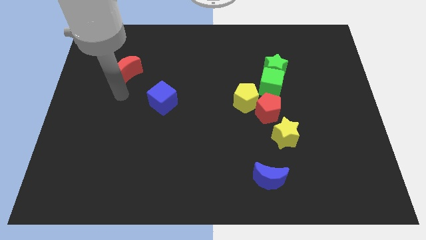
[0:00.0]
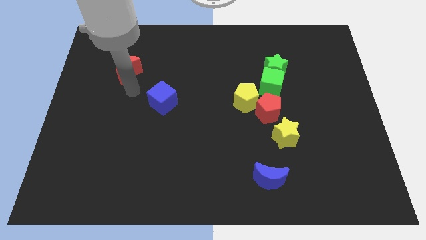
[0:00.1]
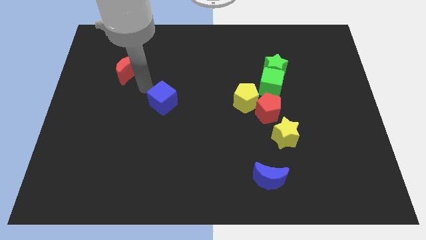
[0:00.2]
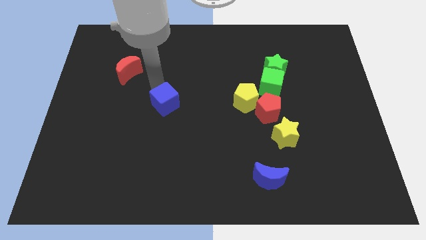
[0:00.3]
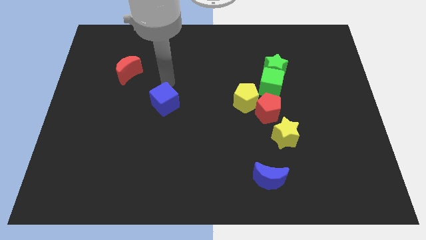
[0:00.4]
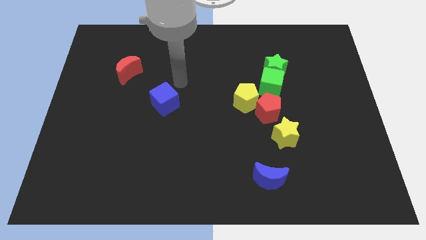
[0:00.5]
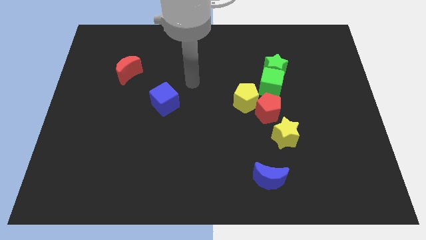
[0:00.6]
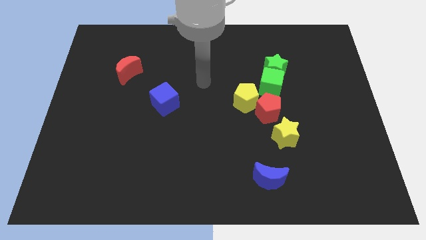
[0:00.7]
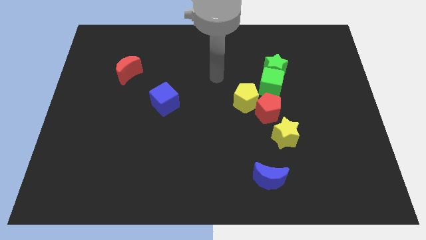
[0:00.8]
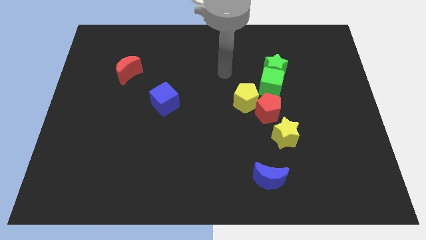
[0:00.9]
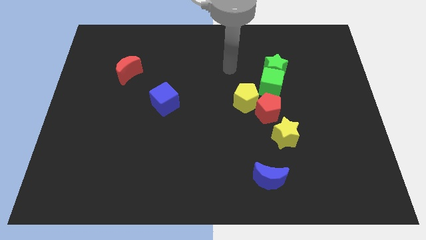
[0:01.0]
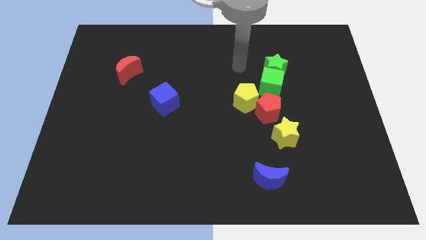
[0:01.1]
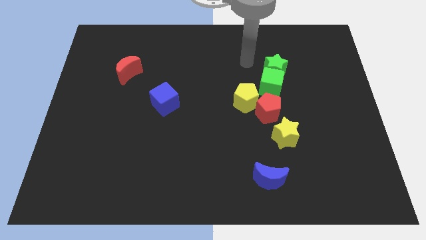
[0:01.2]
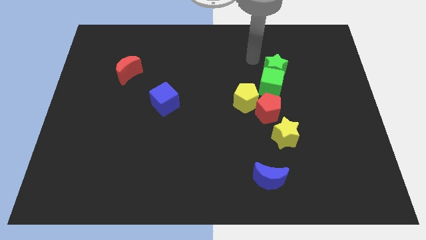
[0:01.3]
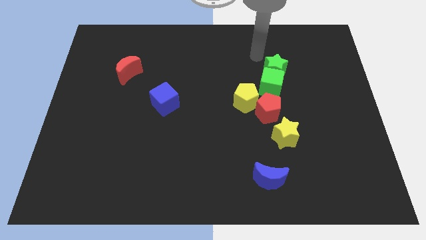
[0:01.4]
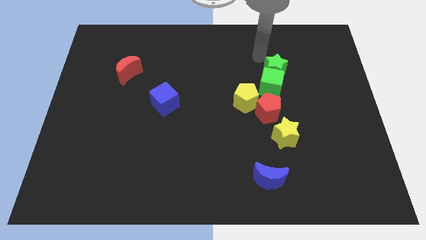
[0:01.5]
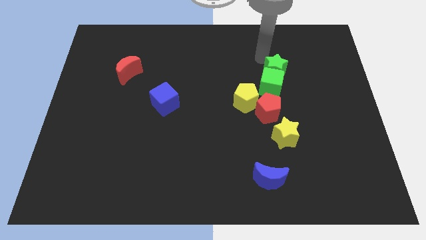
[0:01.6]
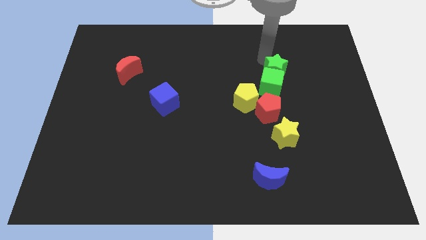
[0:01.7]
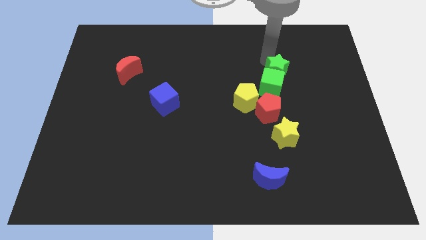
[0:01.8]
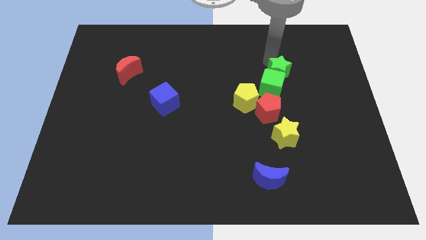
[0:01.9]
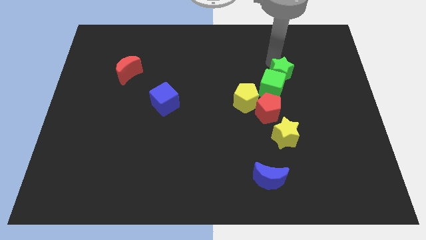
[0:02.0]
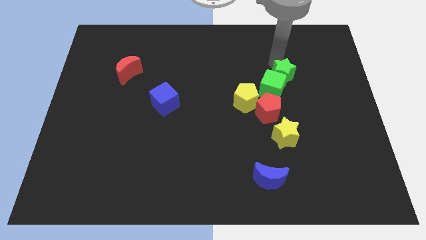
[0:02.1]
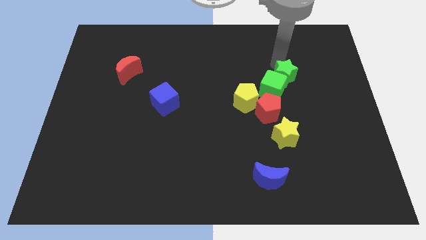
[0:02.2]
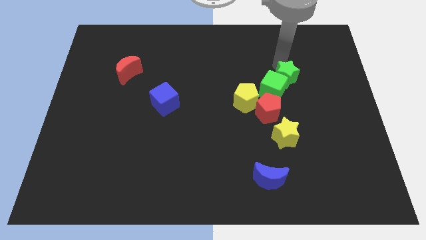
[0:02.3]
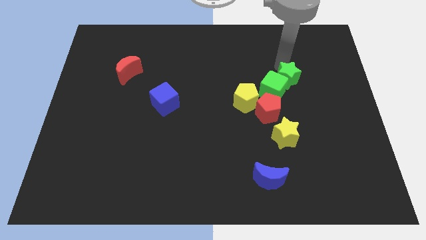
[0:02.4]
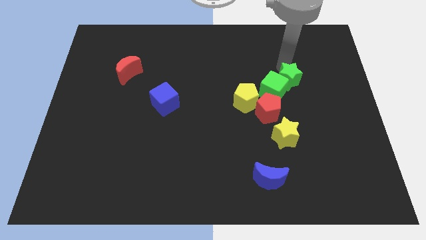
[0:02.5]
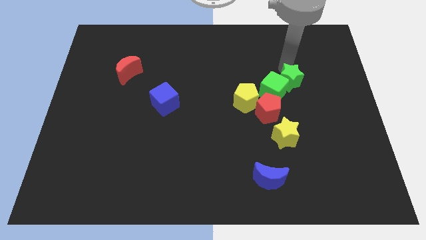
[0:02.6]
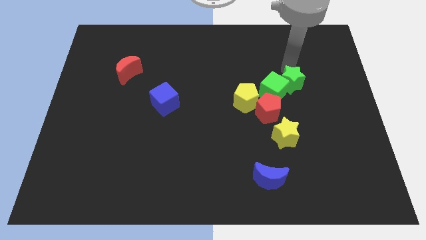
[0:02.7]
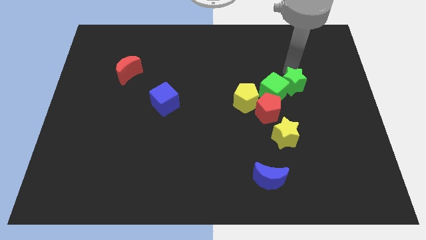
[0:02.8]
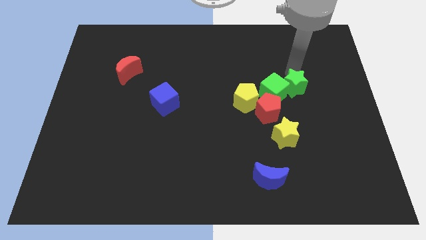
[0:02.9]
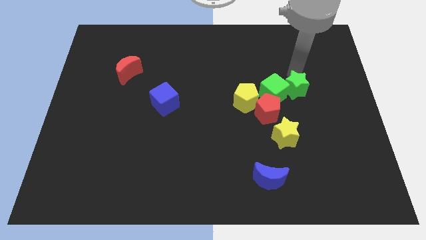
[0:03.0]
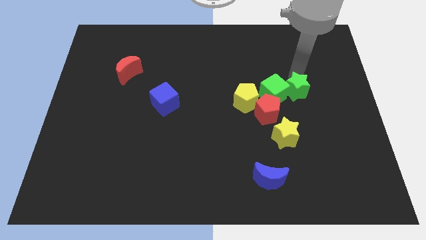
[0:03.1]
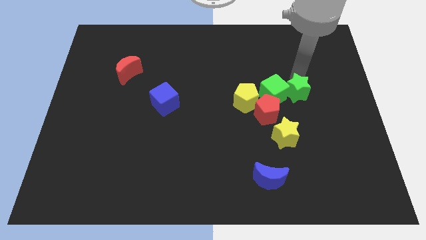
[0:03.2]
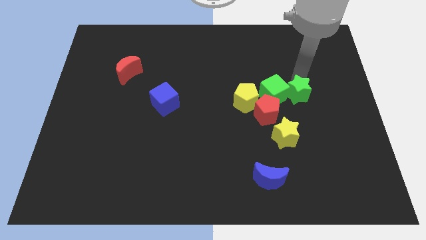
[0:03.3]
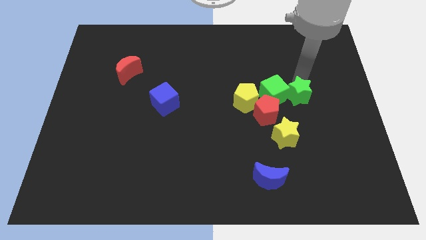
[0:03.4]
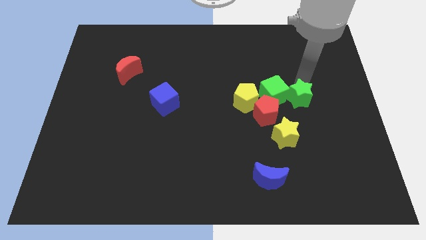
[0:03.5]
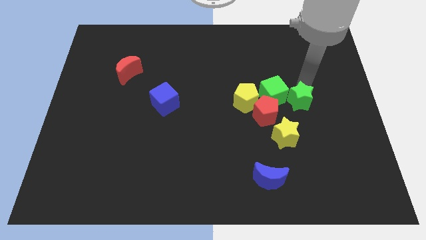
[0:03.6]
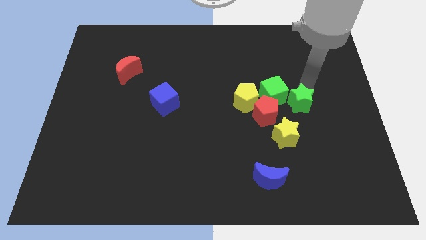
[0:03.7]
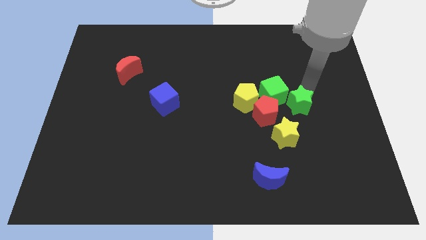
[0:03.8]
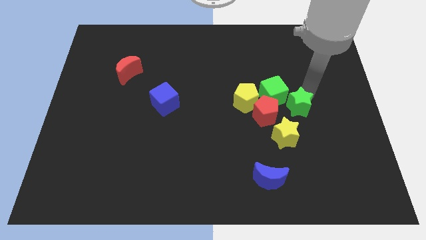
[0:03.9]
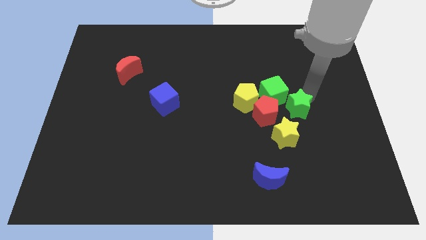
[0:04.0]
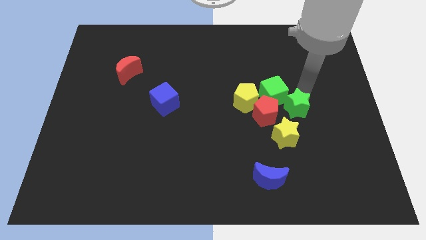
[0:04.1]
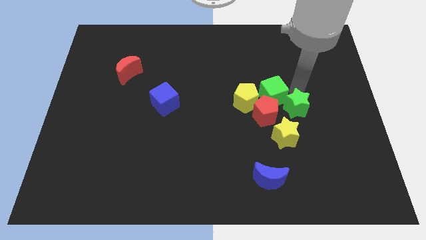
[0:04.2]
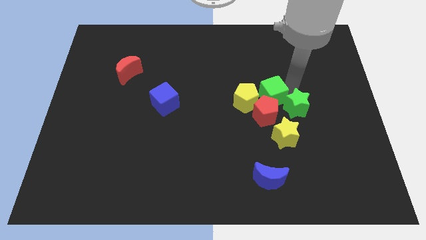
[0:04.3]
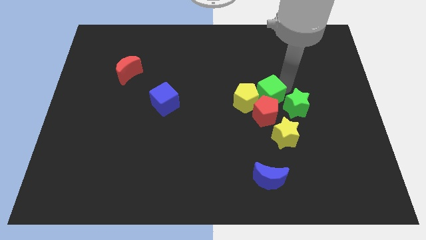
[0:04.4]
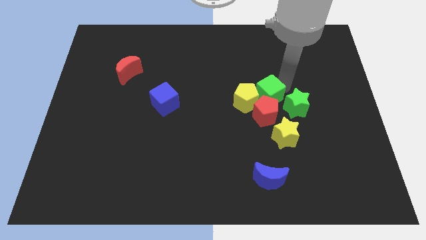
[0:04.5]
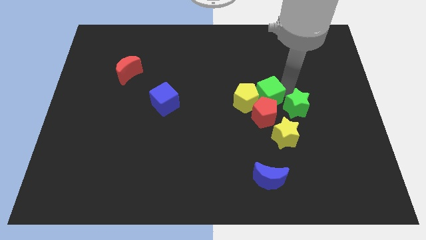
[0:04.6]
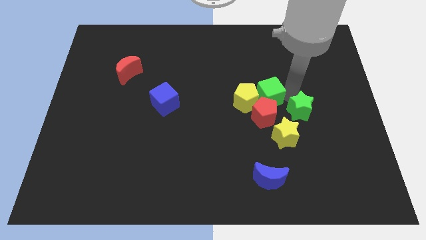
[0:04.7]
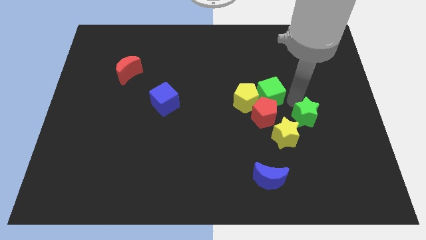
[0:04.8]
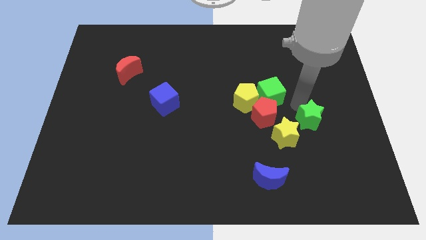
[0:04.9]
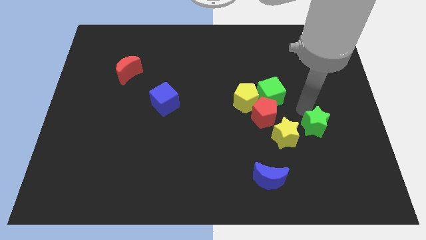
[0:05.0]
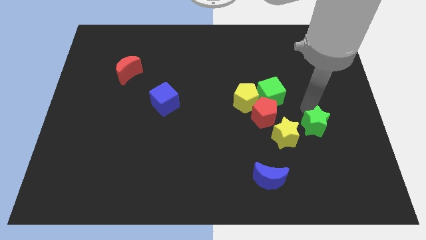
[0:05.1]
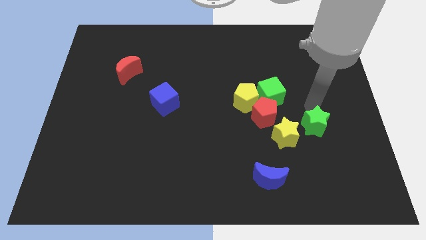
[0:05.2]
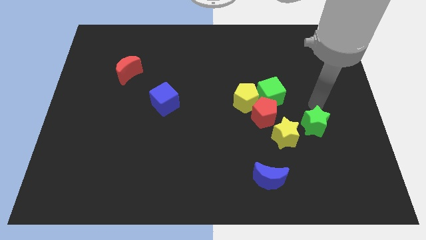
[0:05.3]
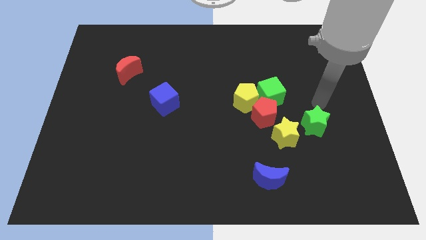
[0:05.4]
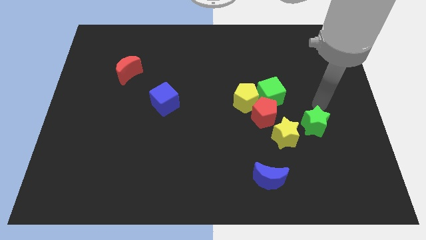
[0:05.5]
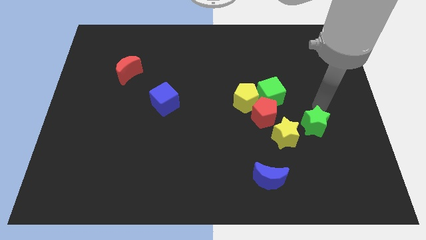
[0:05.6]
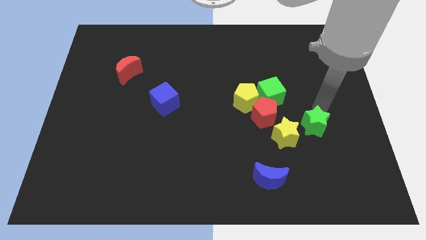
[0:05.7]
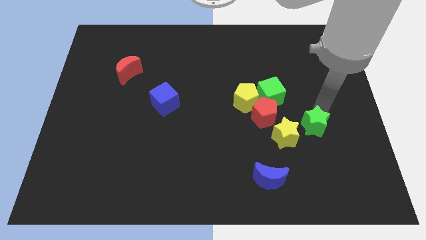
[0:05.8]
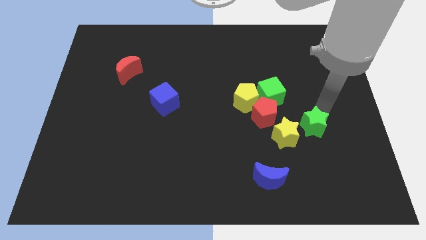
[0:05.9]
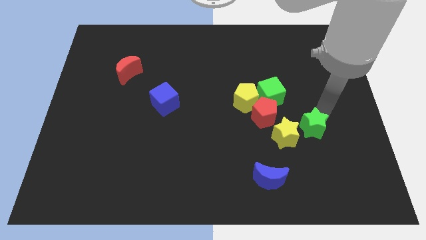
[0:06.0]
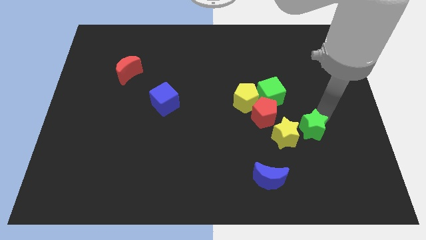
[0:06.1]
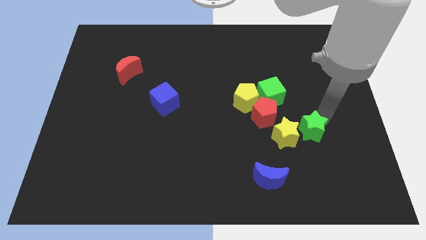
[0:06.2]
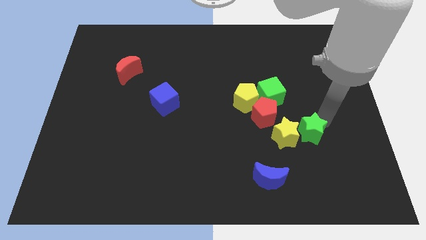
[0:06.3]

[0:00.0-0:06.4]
put the green star to the bottom right side of the yellow star
